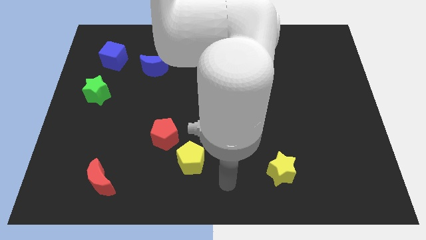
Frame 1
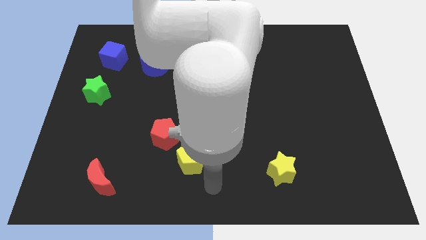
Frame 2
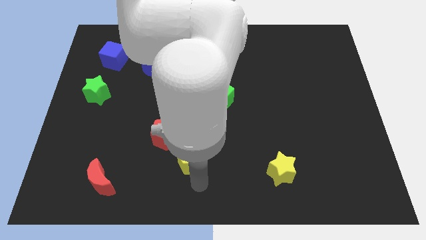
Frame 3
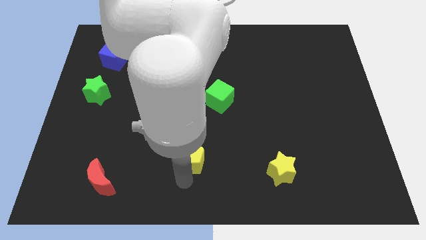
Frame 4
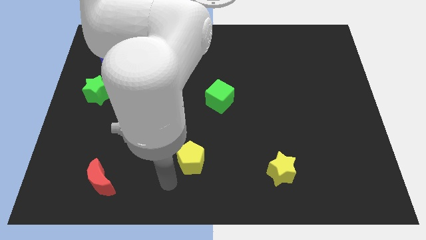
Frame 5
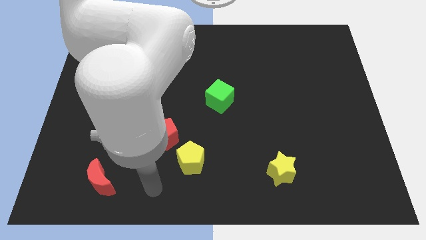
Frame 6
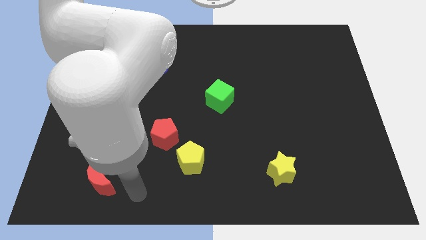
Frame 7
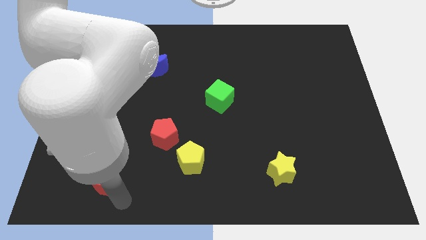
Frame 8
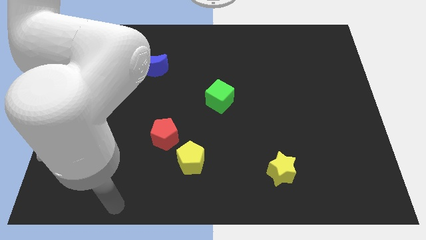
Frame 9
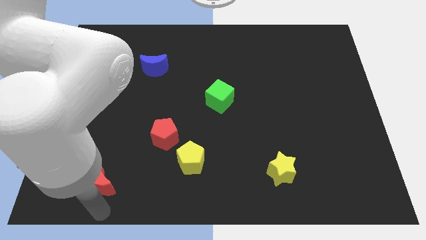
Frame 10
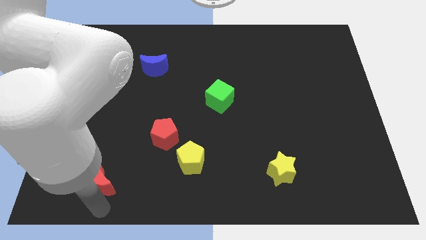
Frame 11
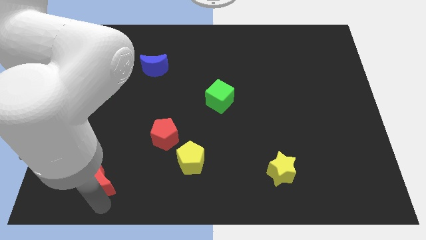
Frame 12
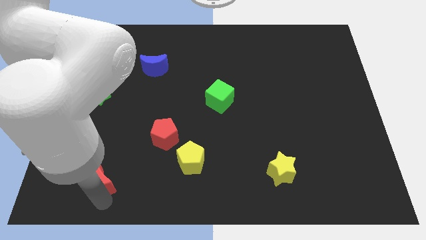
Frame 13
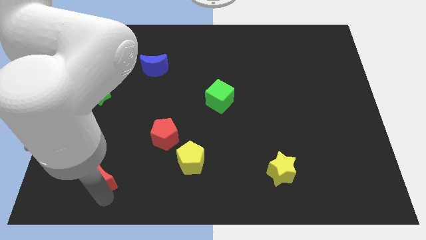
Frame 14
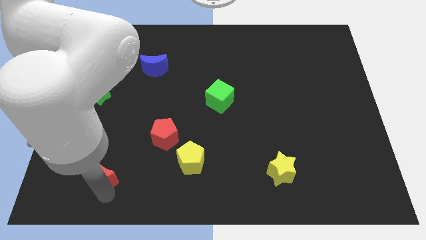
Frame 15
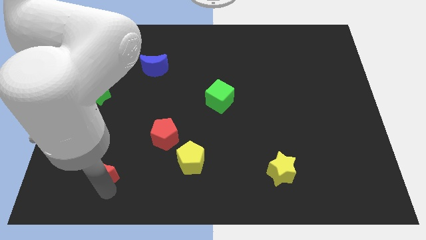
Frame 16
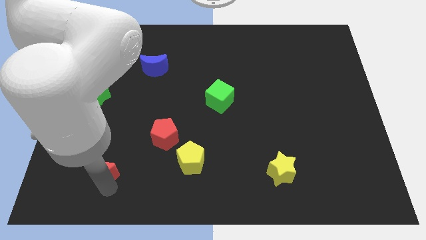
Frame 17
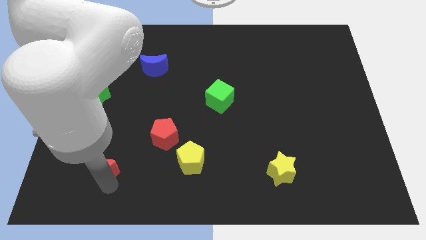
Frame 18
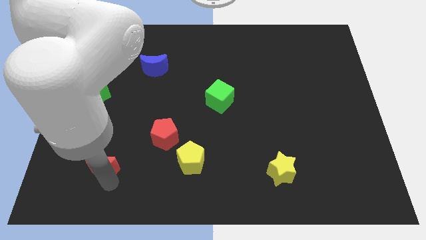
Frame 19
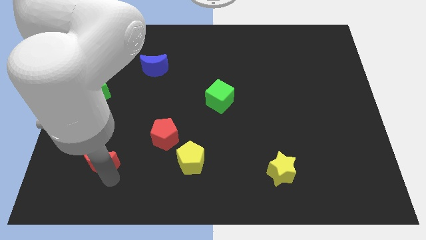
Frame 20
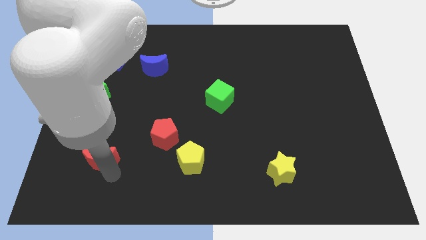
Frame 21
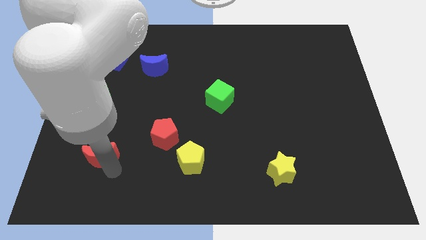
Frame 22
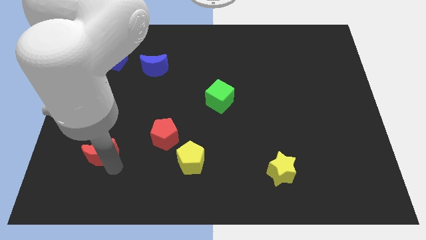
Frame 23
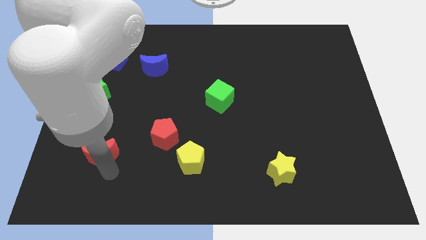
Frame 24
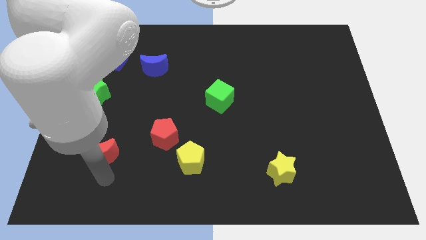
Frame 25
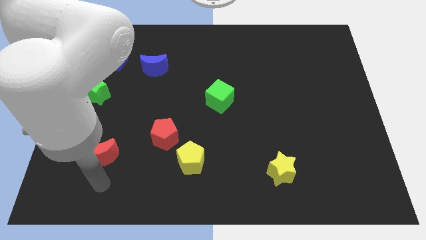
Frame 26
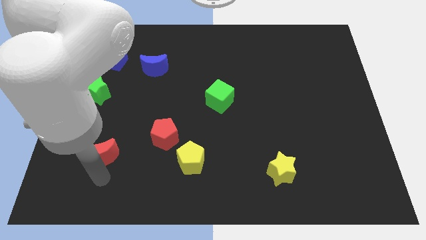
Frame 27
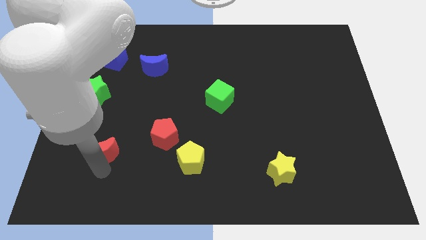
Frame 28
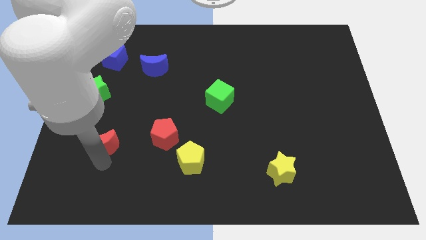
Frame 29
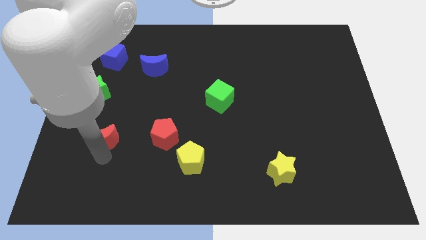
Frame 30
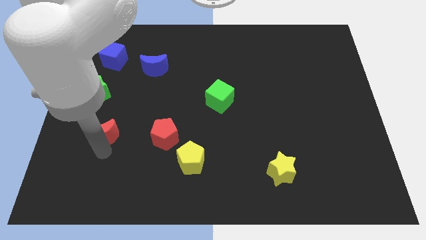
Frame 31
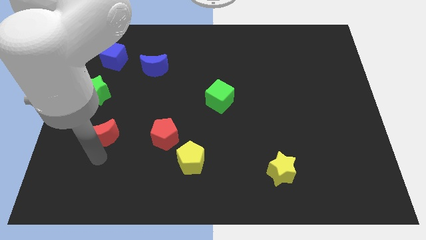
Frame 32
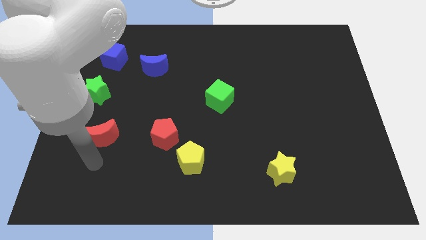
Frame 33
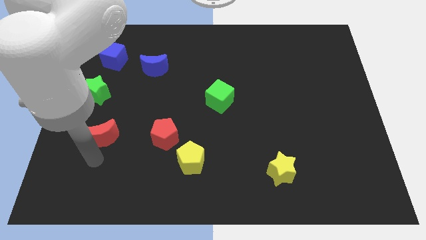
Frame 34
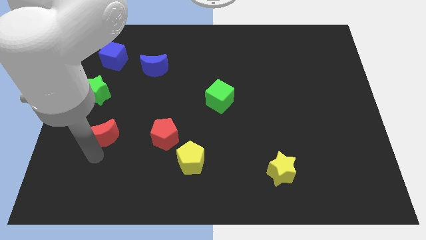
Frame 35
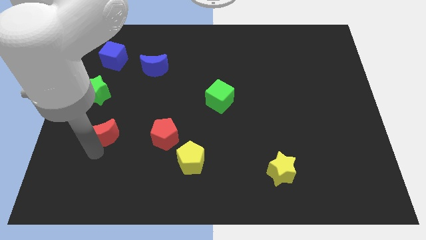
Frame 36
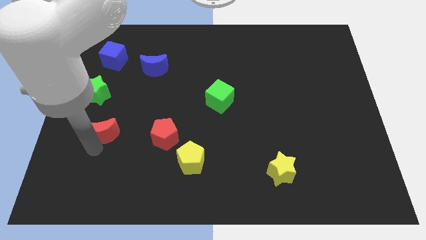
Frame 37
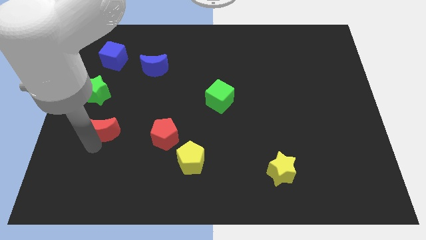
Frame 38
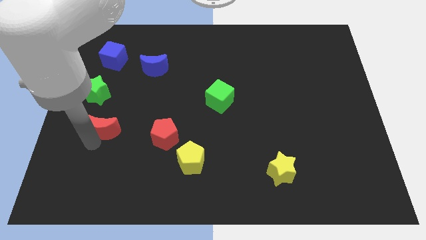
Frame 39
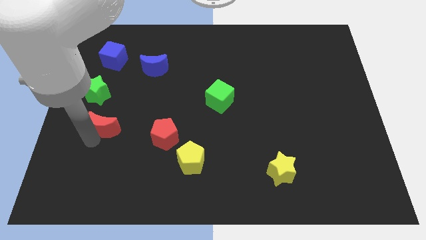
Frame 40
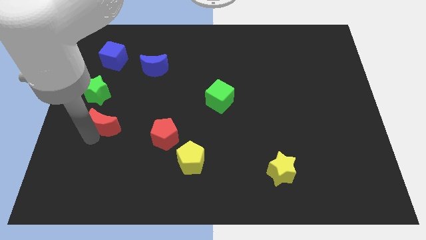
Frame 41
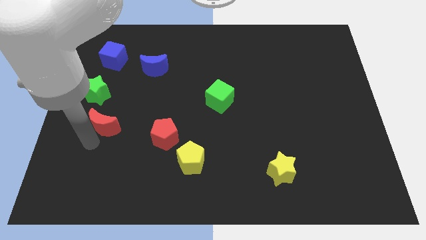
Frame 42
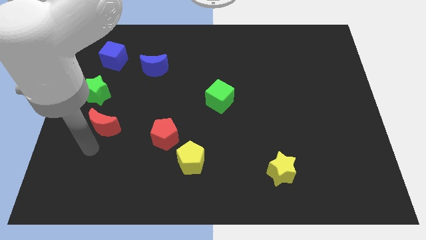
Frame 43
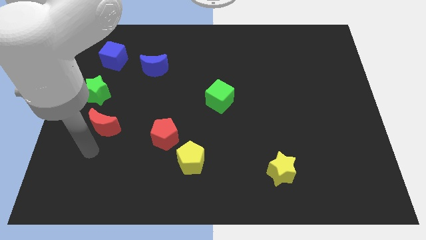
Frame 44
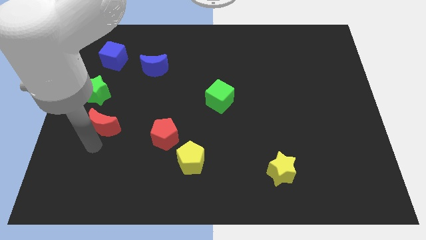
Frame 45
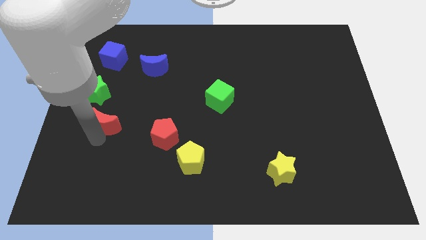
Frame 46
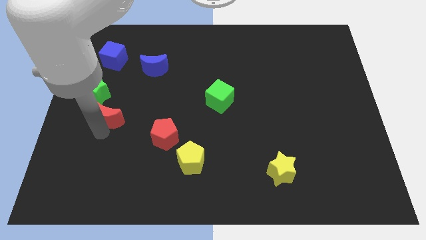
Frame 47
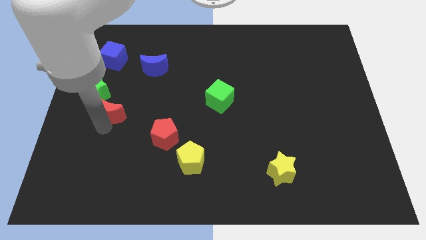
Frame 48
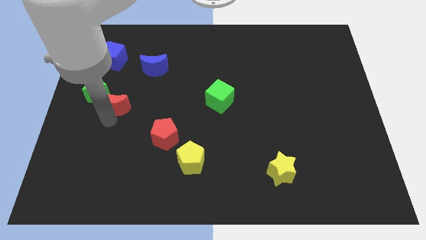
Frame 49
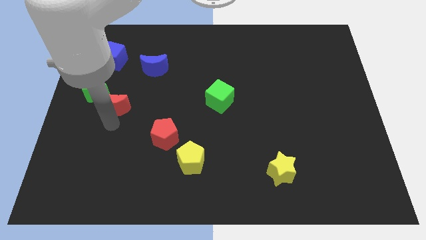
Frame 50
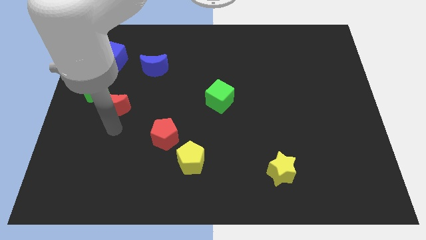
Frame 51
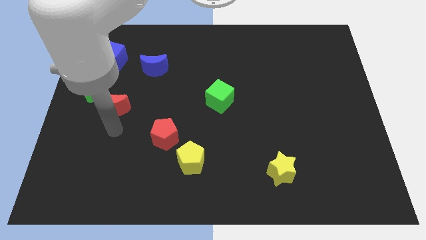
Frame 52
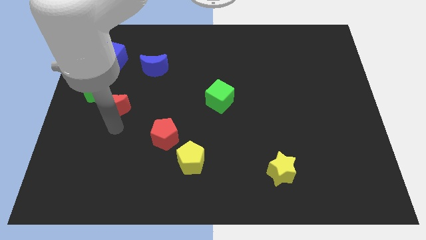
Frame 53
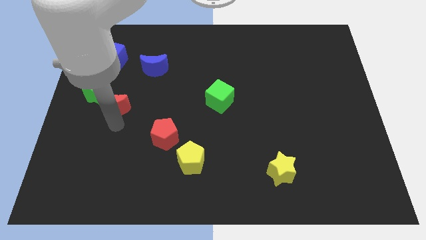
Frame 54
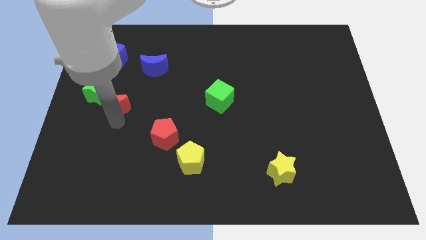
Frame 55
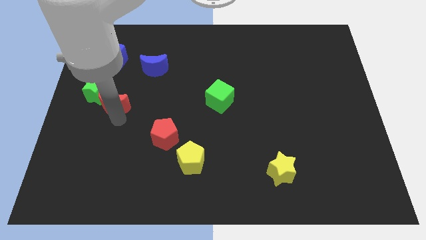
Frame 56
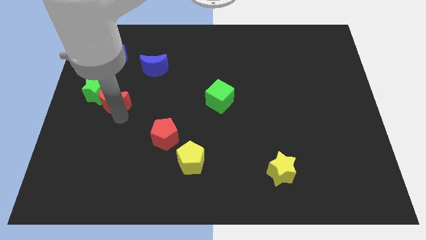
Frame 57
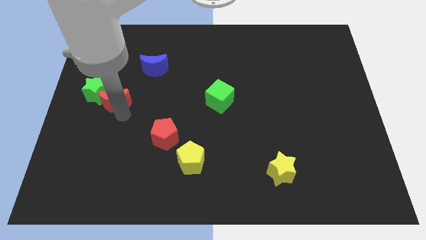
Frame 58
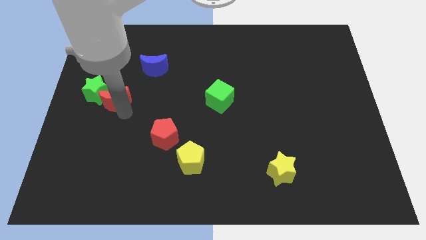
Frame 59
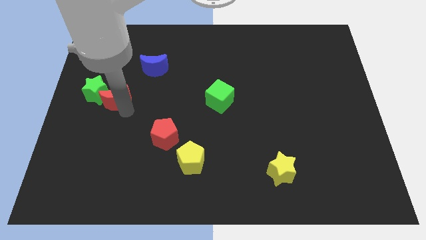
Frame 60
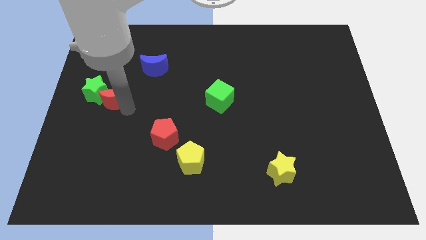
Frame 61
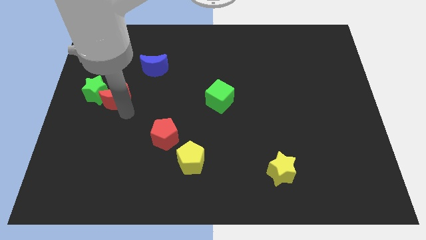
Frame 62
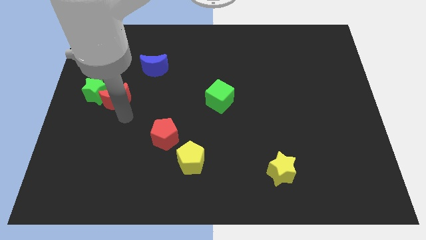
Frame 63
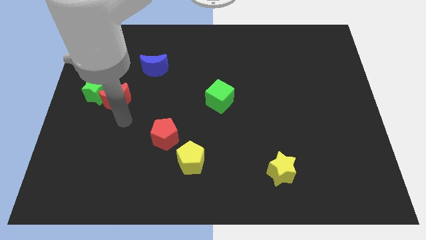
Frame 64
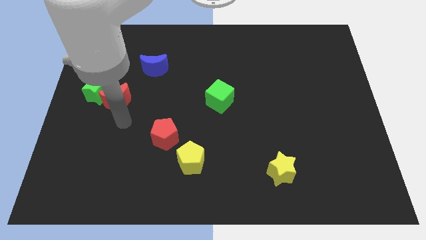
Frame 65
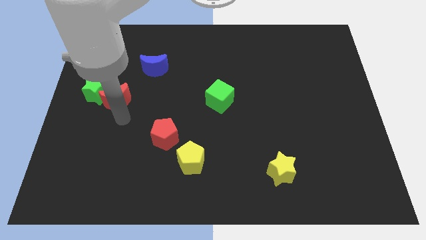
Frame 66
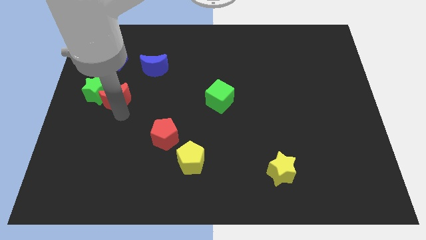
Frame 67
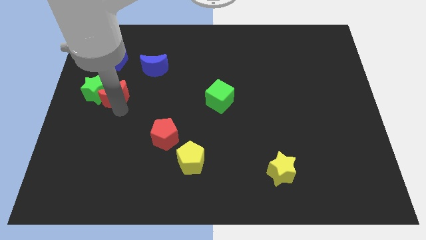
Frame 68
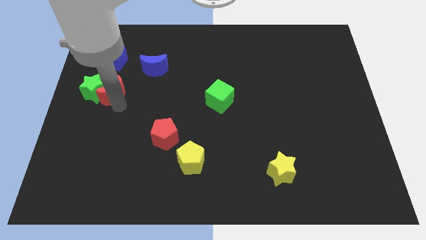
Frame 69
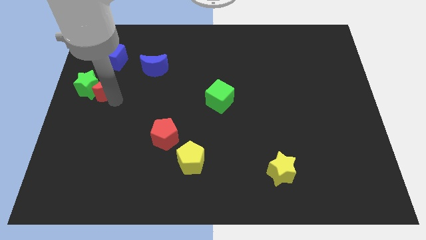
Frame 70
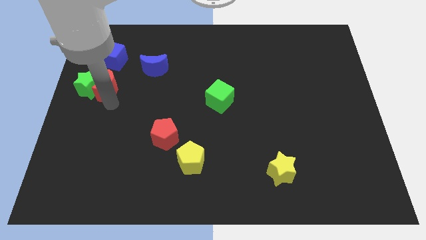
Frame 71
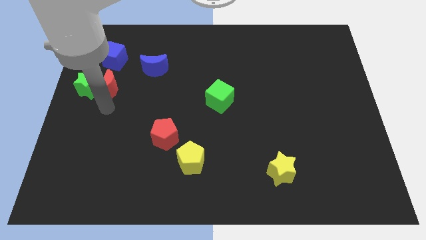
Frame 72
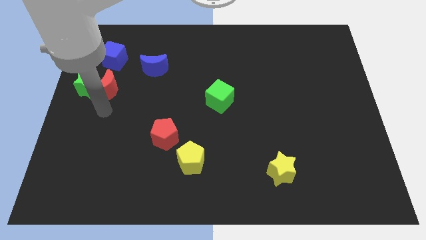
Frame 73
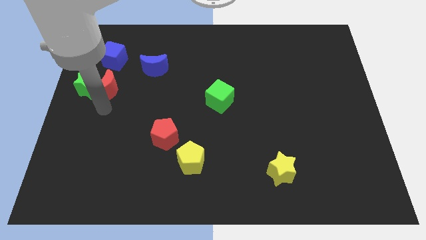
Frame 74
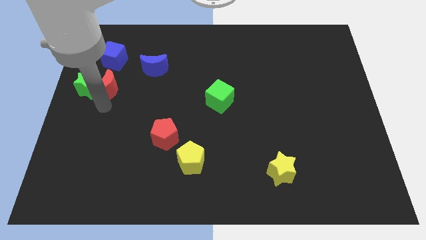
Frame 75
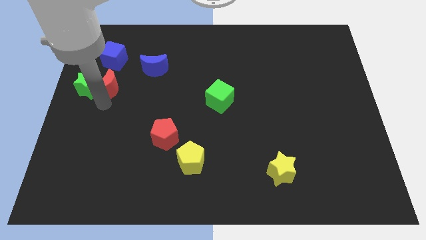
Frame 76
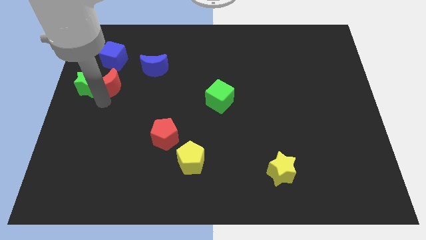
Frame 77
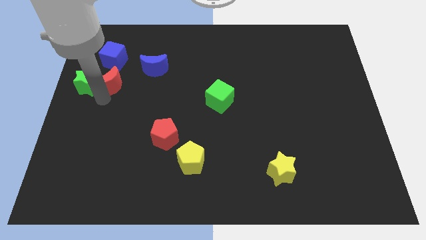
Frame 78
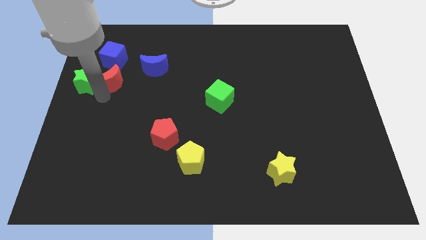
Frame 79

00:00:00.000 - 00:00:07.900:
move the red moon just left of the blue moon
